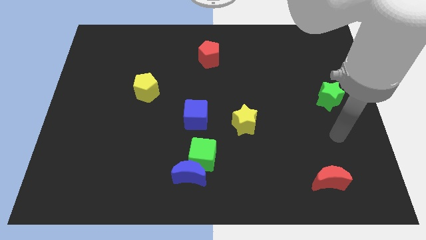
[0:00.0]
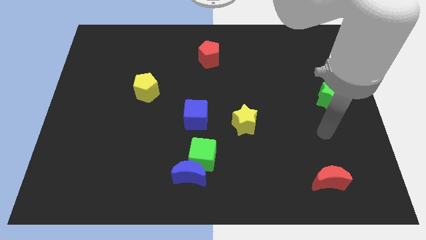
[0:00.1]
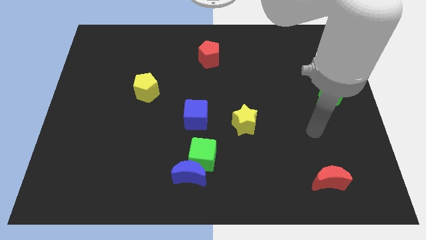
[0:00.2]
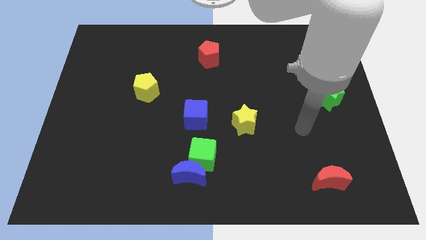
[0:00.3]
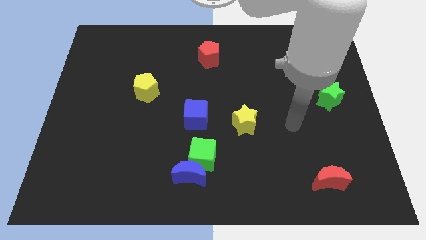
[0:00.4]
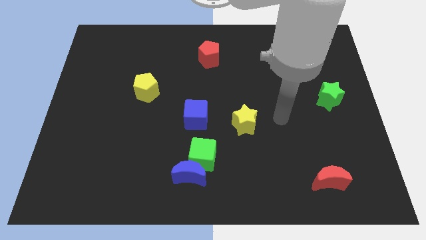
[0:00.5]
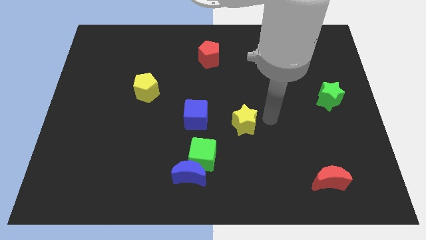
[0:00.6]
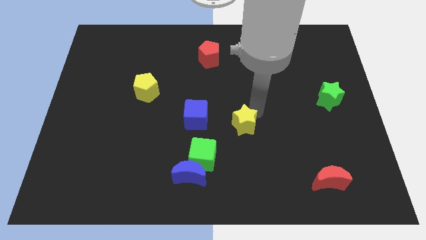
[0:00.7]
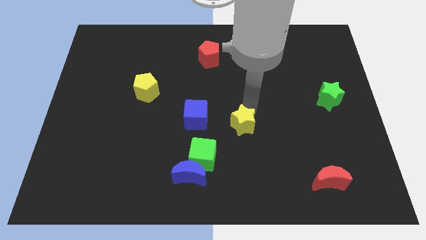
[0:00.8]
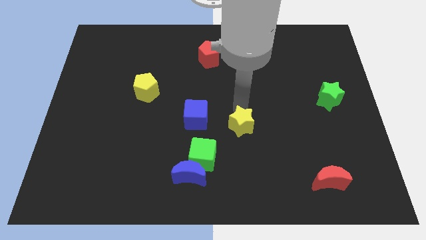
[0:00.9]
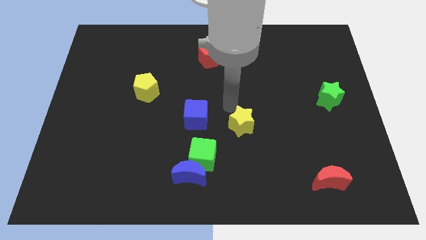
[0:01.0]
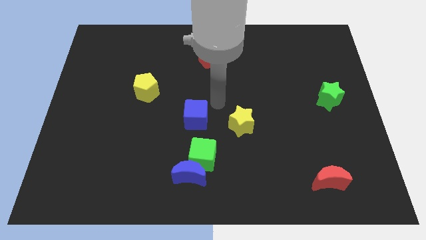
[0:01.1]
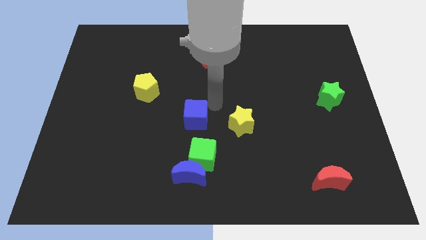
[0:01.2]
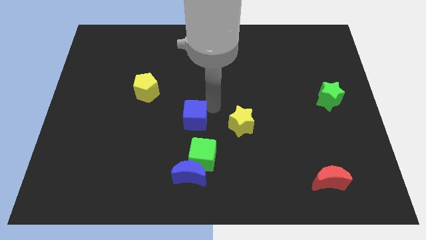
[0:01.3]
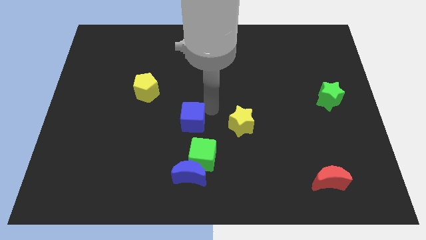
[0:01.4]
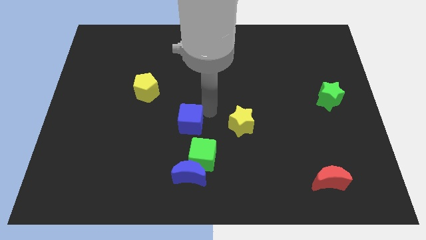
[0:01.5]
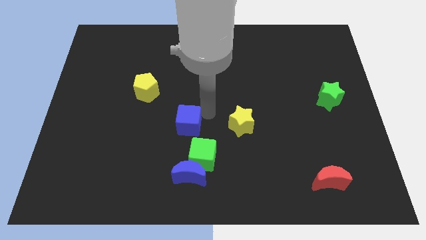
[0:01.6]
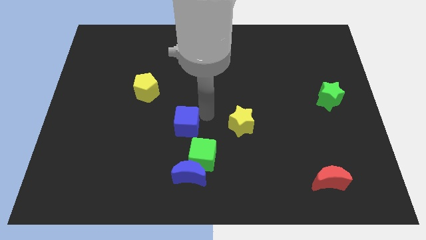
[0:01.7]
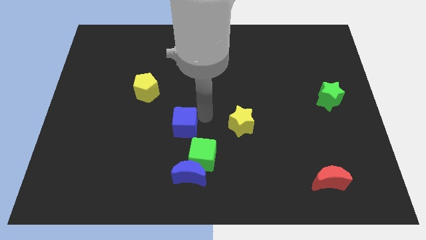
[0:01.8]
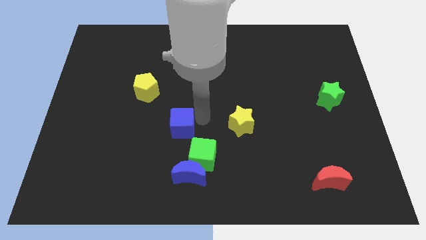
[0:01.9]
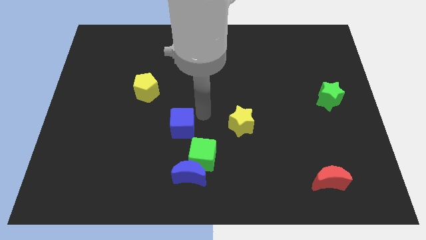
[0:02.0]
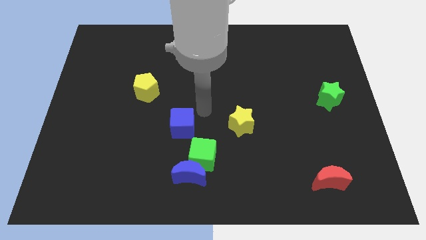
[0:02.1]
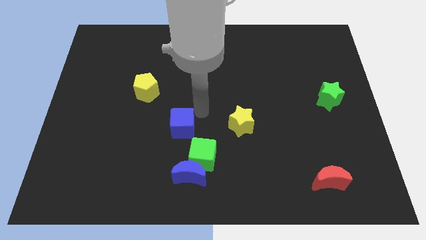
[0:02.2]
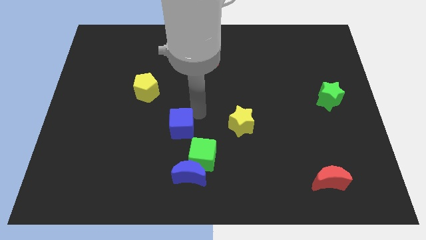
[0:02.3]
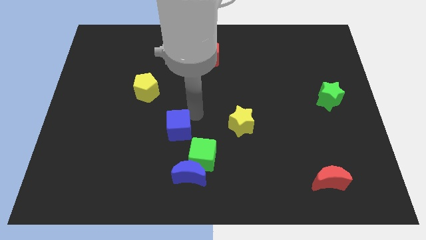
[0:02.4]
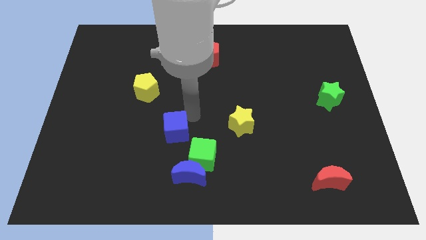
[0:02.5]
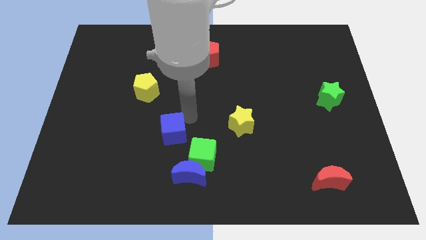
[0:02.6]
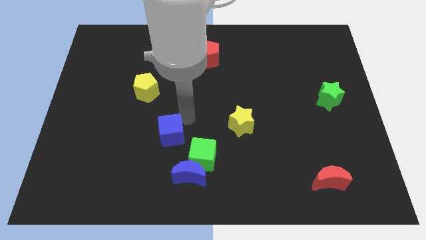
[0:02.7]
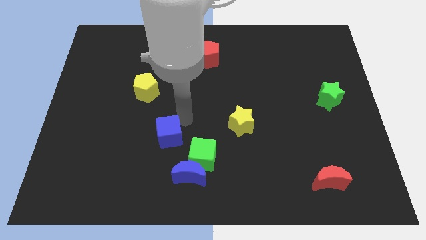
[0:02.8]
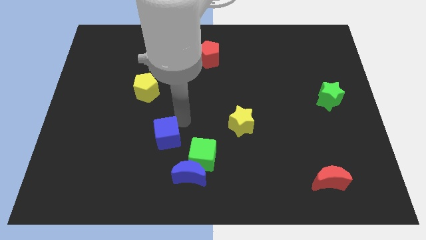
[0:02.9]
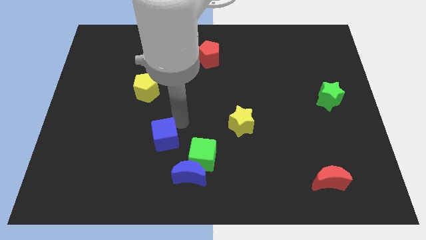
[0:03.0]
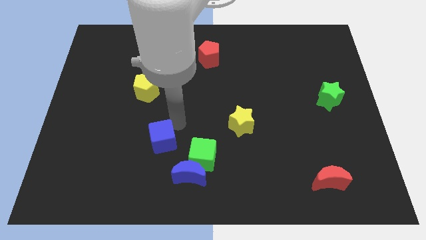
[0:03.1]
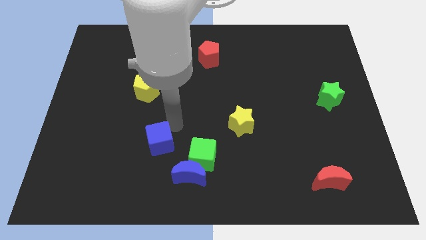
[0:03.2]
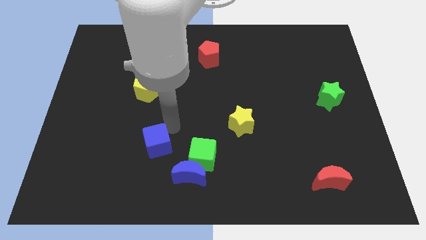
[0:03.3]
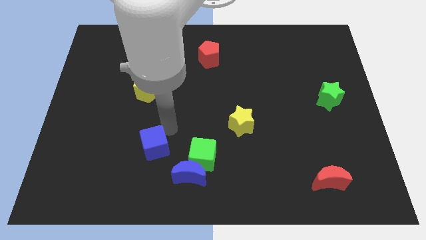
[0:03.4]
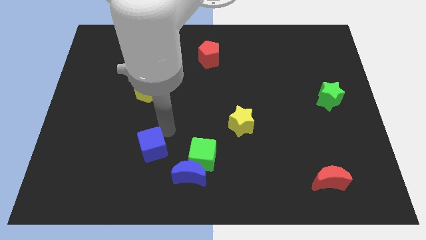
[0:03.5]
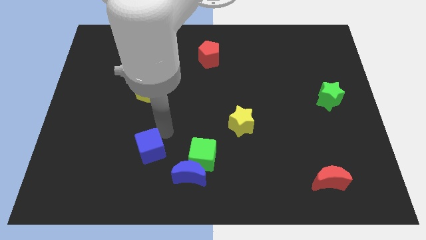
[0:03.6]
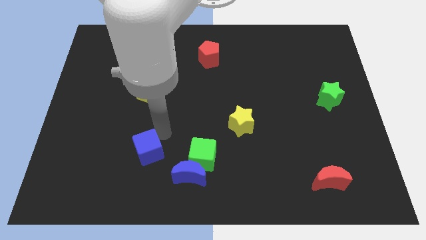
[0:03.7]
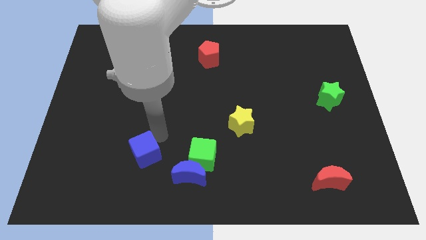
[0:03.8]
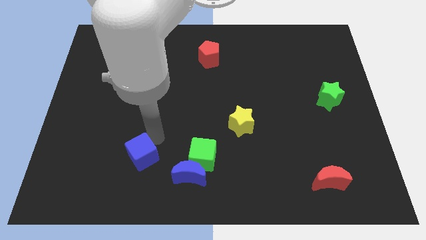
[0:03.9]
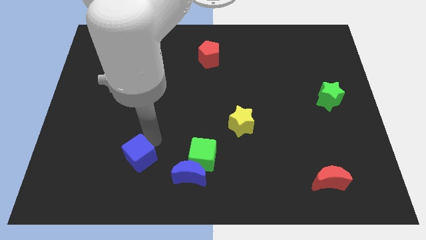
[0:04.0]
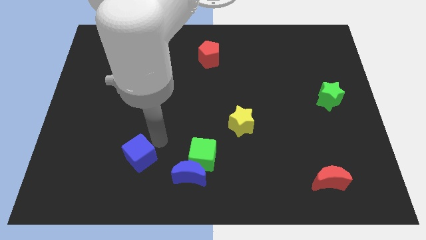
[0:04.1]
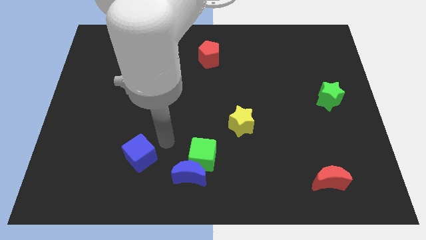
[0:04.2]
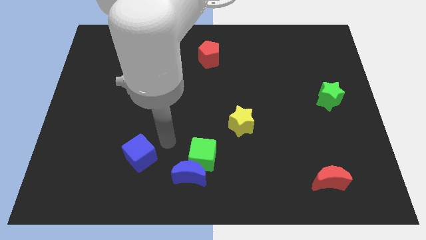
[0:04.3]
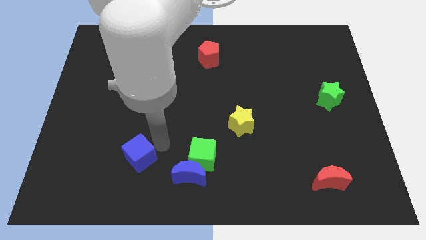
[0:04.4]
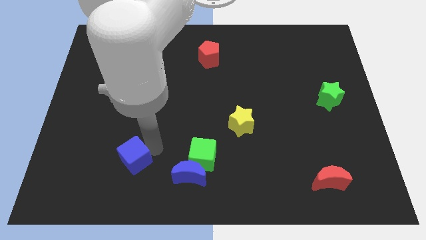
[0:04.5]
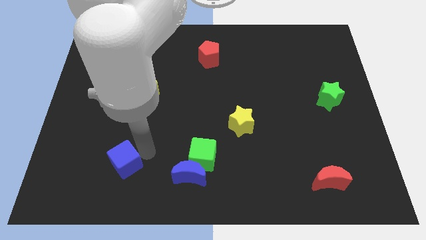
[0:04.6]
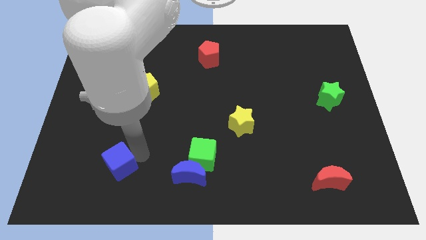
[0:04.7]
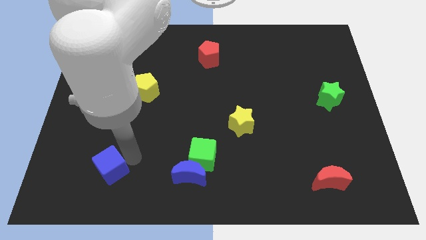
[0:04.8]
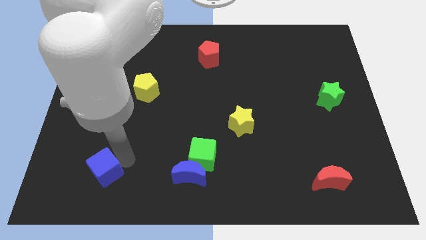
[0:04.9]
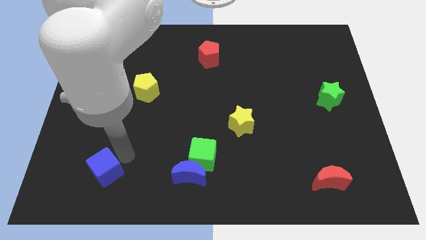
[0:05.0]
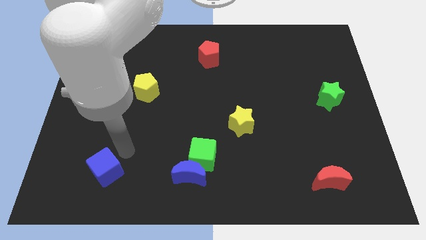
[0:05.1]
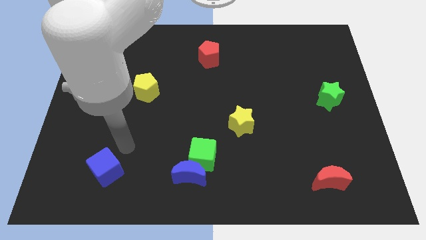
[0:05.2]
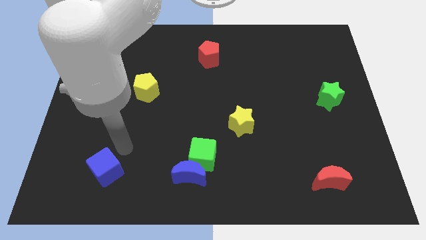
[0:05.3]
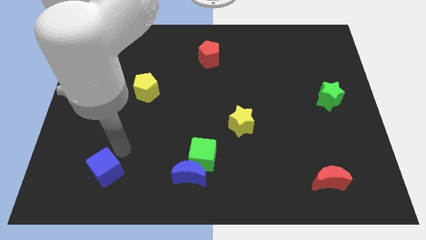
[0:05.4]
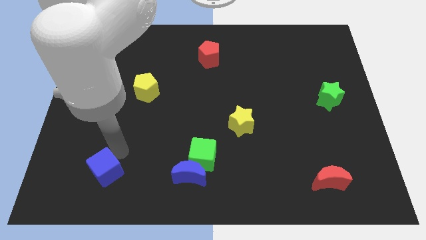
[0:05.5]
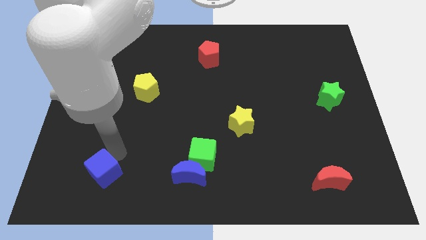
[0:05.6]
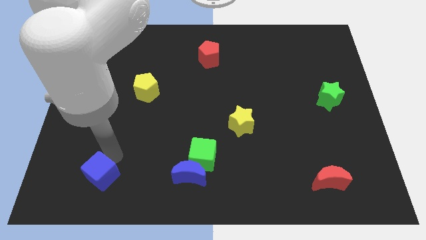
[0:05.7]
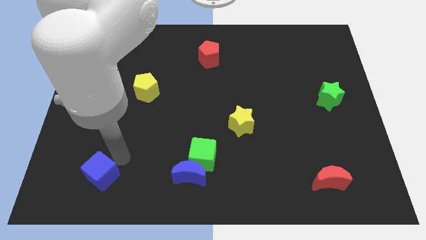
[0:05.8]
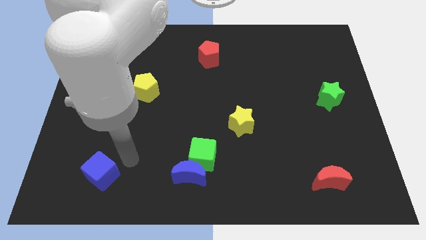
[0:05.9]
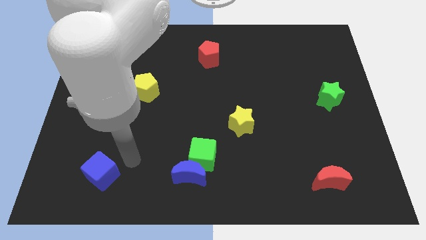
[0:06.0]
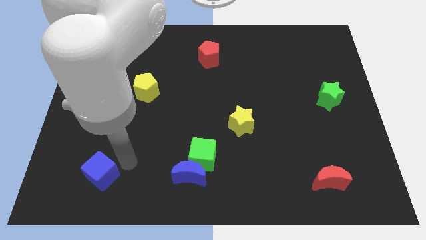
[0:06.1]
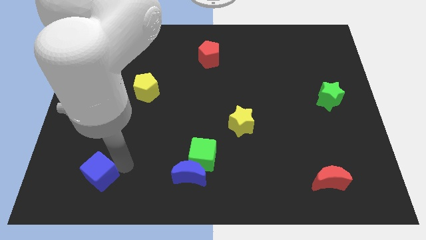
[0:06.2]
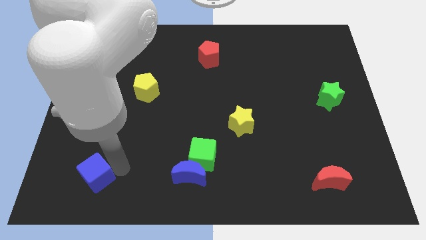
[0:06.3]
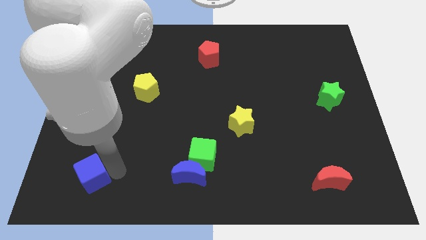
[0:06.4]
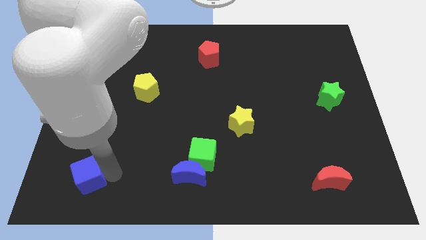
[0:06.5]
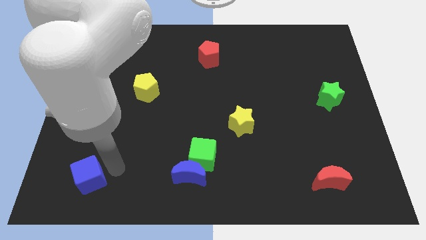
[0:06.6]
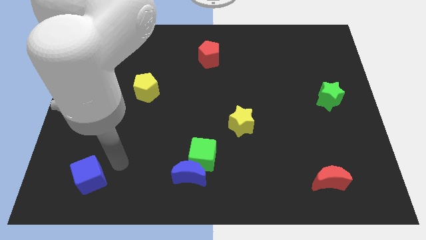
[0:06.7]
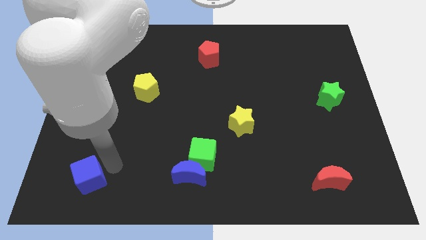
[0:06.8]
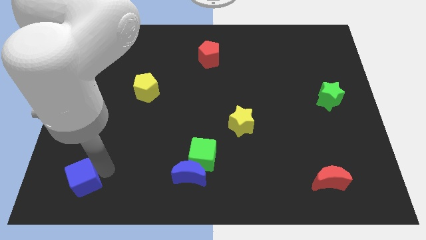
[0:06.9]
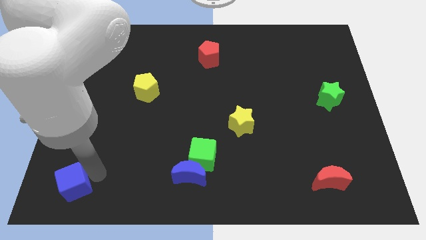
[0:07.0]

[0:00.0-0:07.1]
move the blue cube to the lower left corner

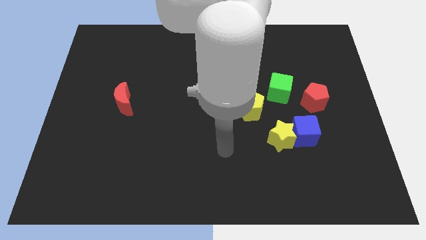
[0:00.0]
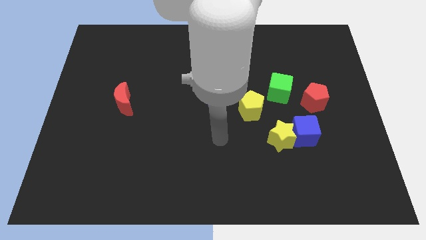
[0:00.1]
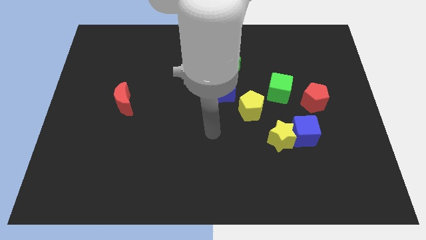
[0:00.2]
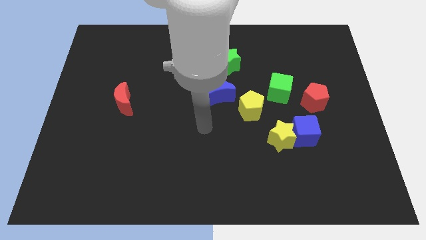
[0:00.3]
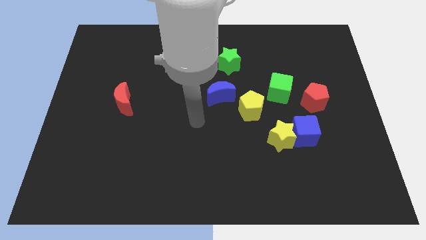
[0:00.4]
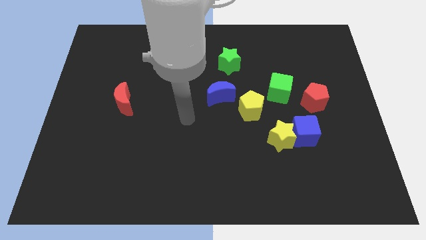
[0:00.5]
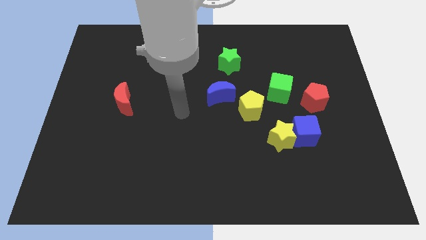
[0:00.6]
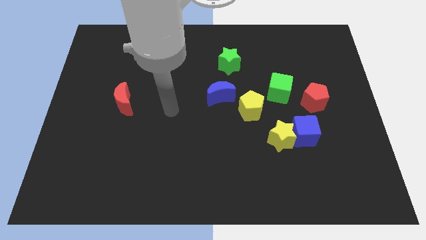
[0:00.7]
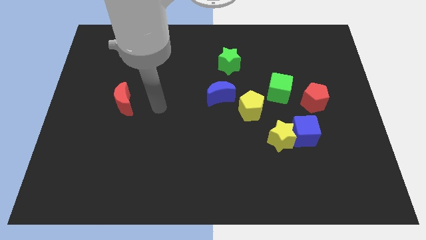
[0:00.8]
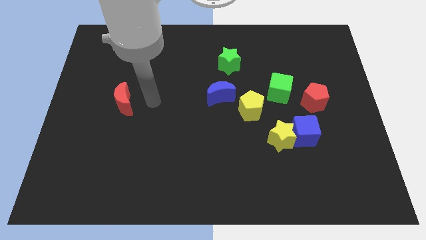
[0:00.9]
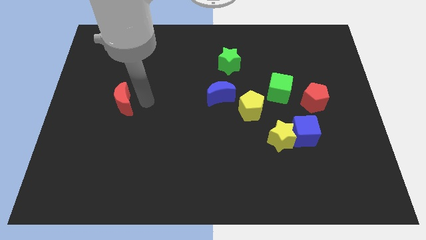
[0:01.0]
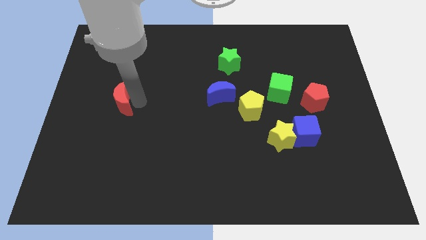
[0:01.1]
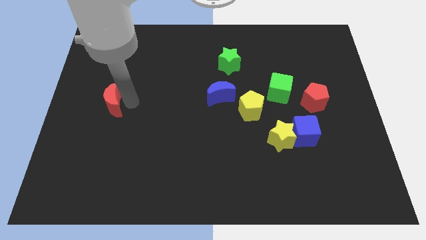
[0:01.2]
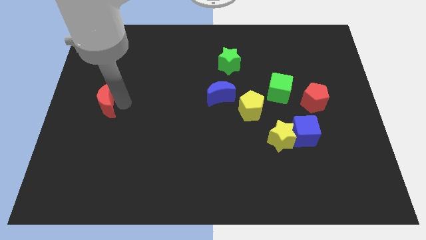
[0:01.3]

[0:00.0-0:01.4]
move the red moon to the left side of the board
